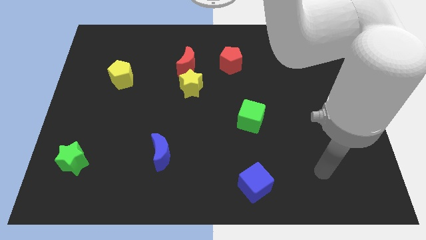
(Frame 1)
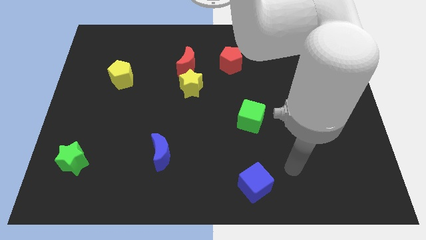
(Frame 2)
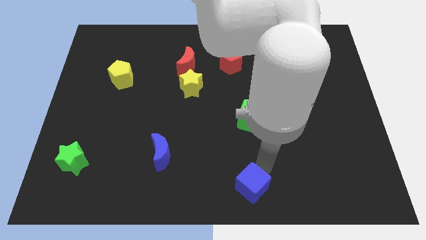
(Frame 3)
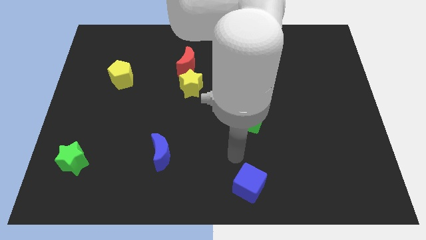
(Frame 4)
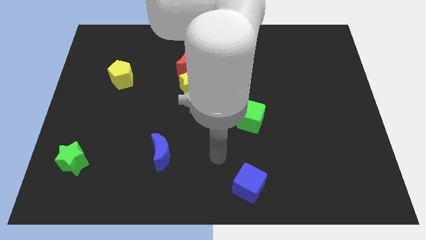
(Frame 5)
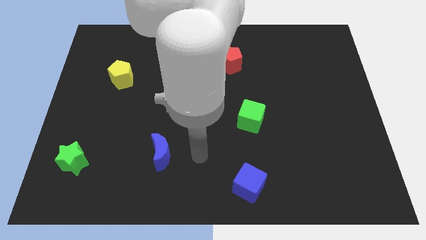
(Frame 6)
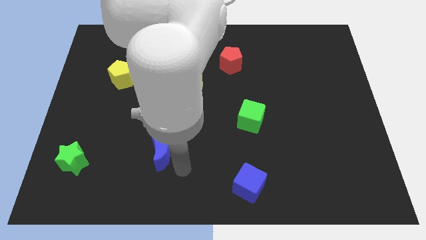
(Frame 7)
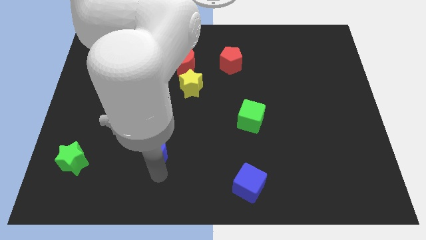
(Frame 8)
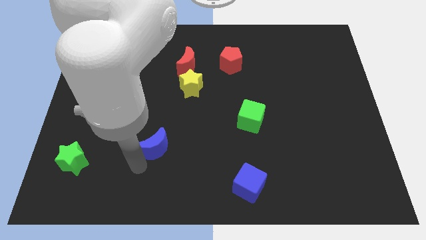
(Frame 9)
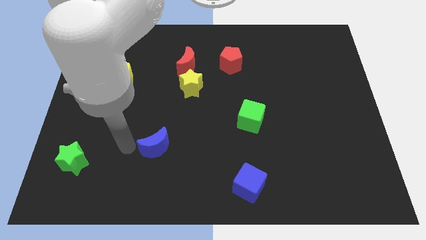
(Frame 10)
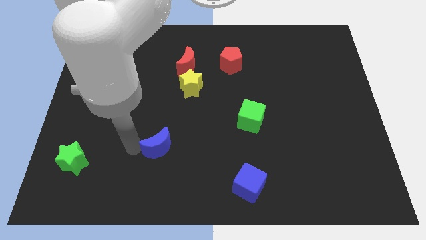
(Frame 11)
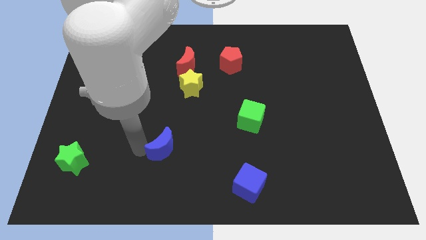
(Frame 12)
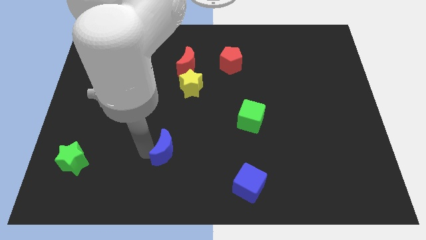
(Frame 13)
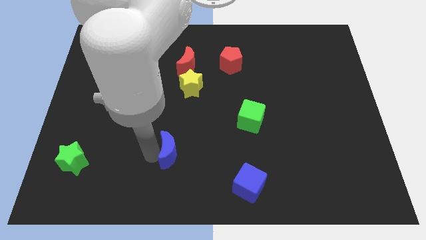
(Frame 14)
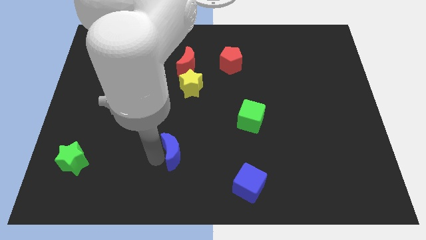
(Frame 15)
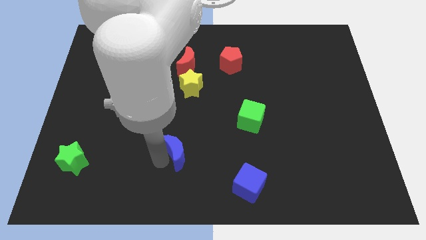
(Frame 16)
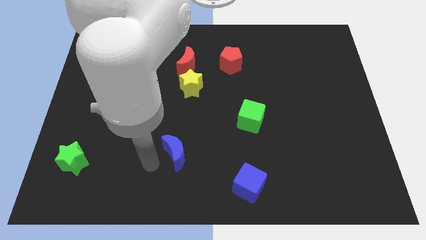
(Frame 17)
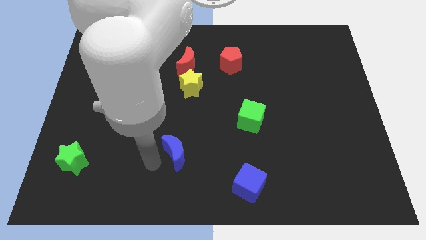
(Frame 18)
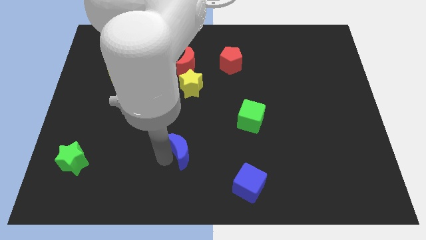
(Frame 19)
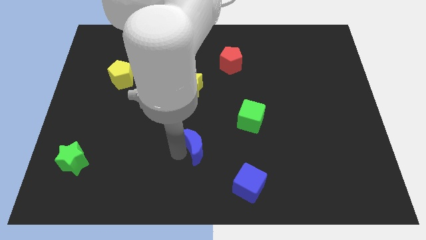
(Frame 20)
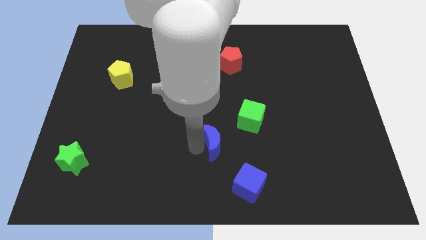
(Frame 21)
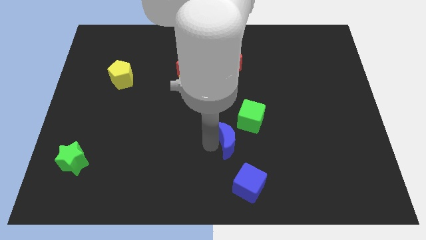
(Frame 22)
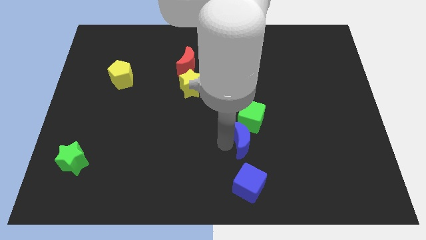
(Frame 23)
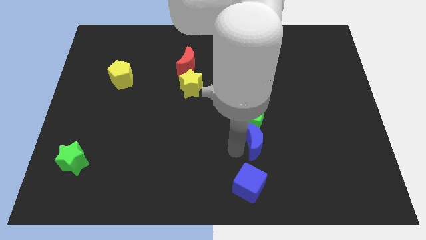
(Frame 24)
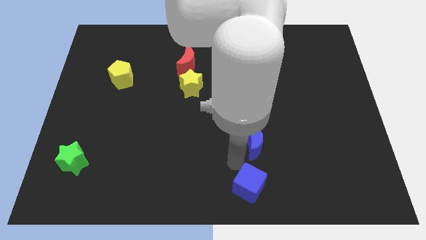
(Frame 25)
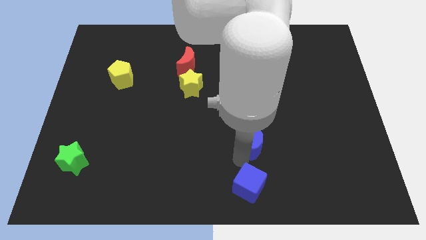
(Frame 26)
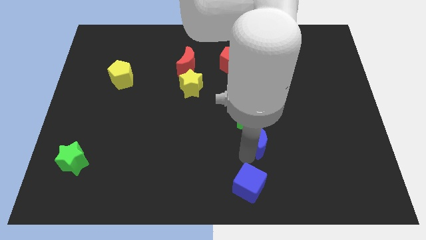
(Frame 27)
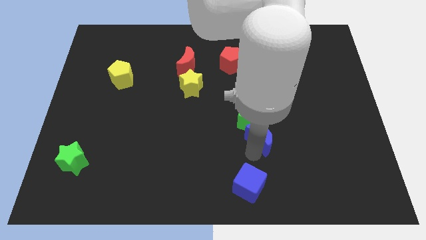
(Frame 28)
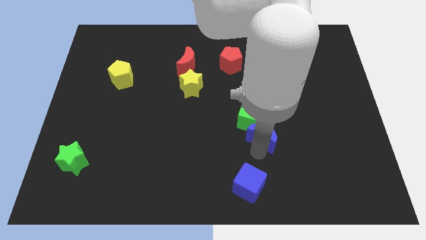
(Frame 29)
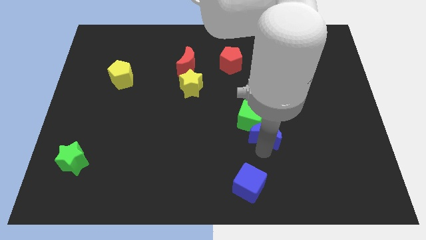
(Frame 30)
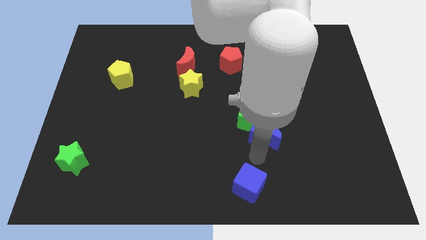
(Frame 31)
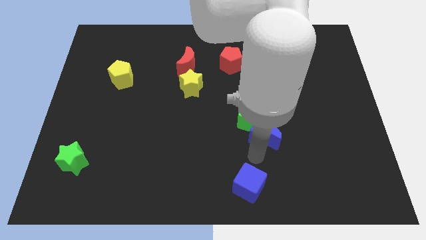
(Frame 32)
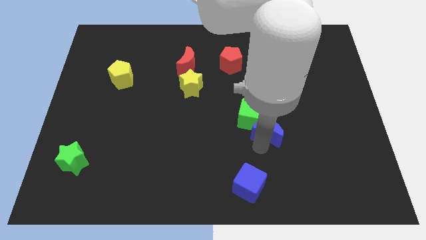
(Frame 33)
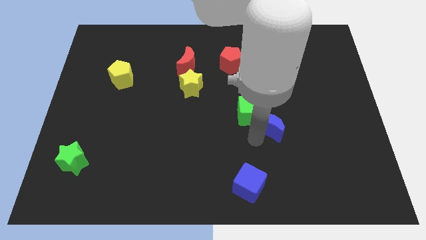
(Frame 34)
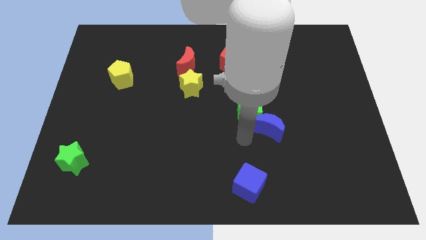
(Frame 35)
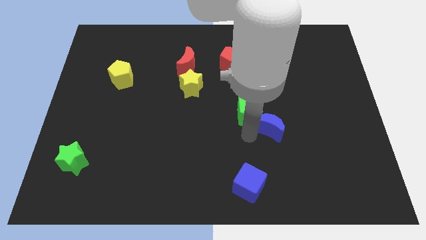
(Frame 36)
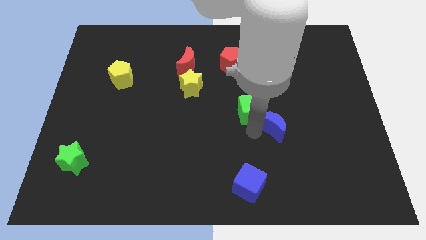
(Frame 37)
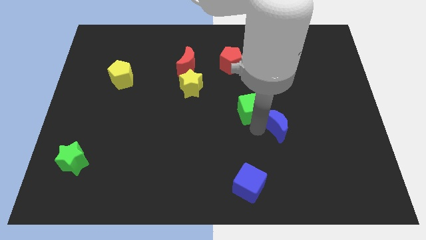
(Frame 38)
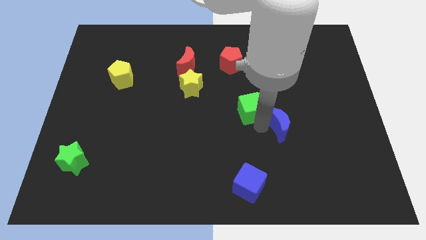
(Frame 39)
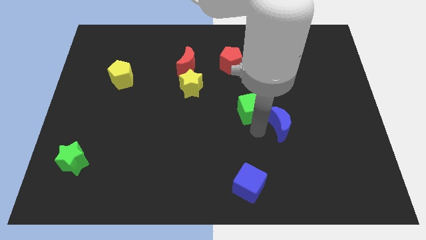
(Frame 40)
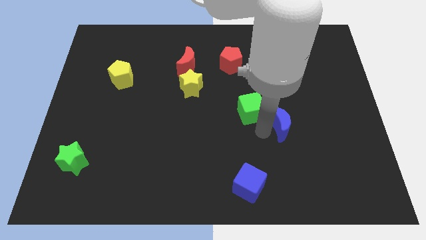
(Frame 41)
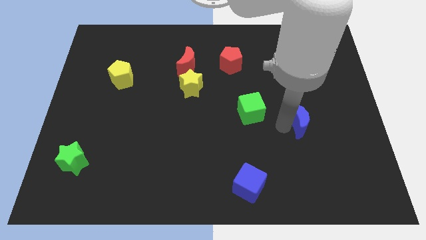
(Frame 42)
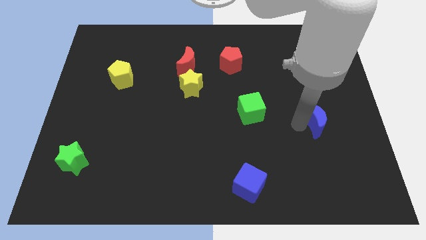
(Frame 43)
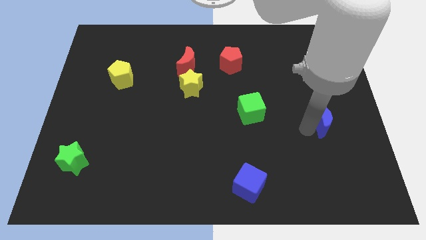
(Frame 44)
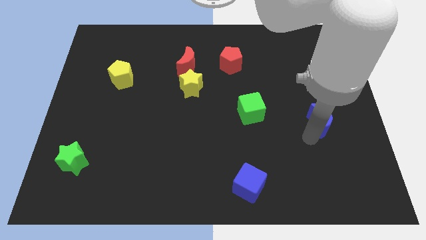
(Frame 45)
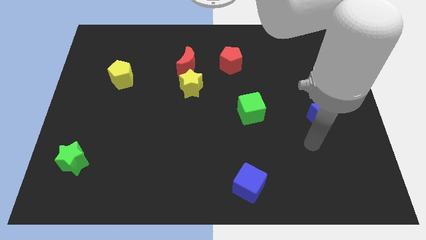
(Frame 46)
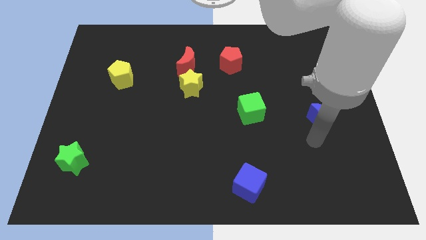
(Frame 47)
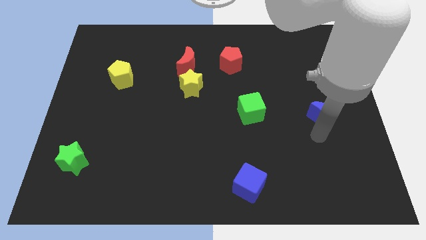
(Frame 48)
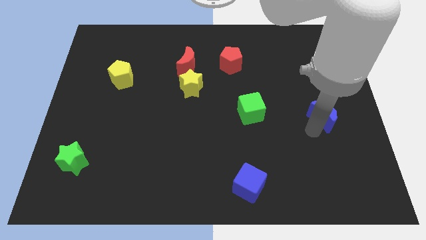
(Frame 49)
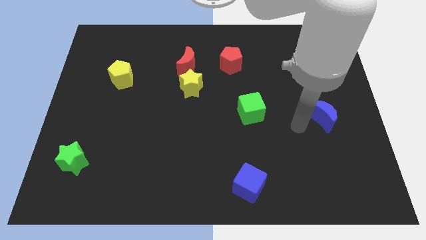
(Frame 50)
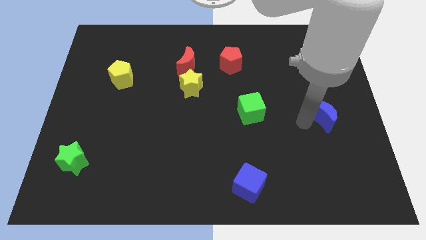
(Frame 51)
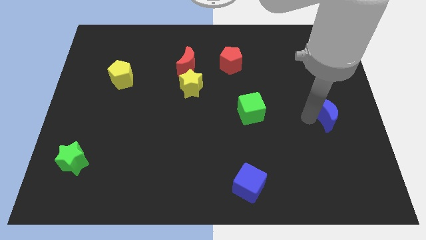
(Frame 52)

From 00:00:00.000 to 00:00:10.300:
push the blue moon to the right side

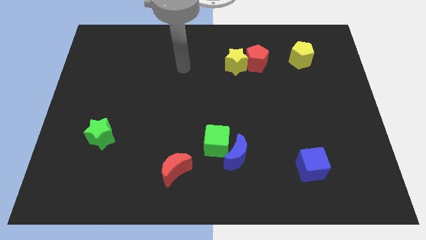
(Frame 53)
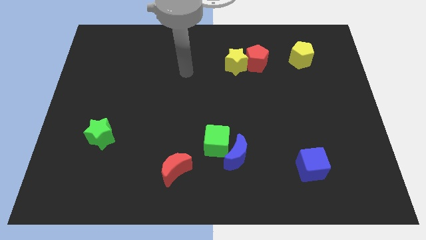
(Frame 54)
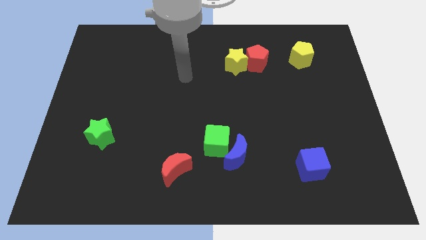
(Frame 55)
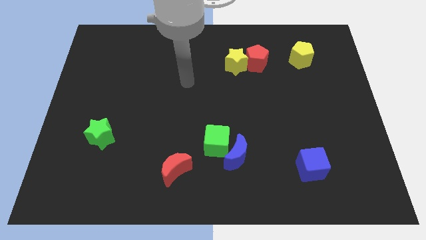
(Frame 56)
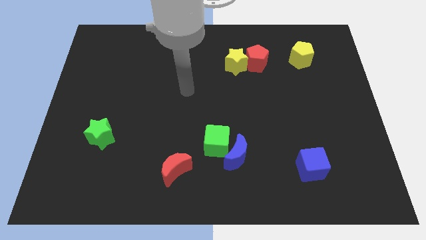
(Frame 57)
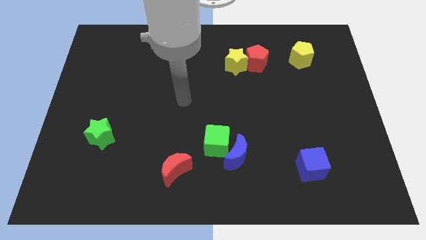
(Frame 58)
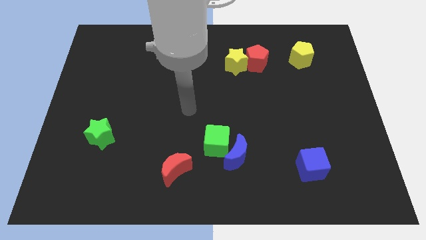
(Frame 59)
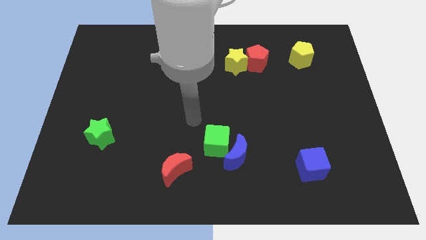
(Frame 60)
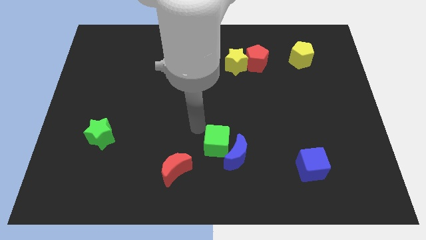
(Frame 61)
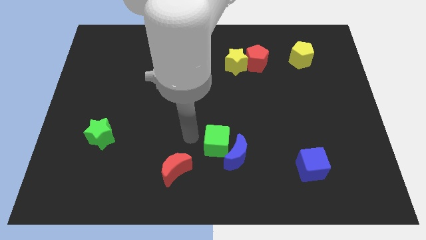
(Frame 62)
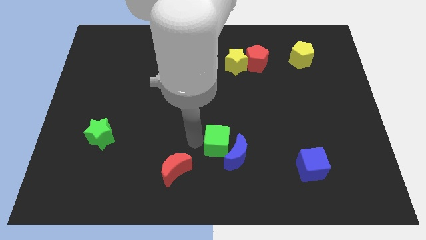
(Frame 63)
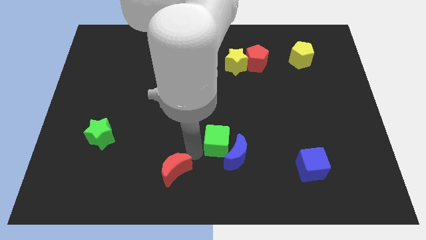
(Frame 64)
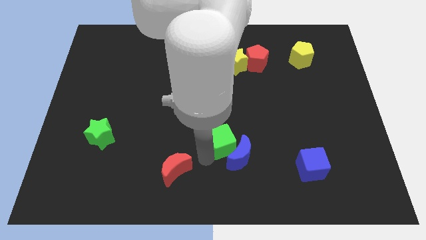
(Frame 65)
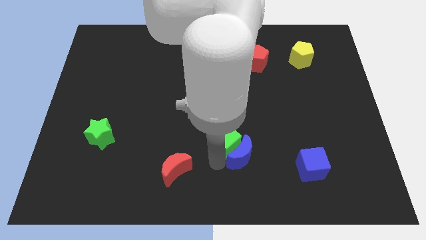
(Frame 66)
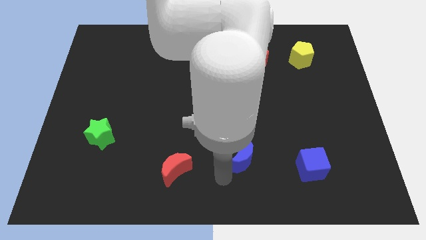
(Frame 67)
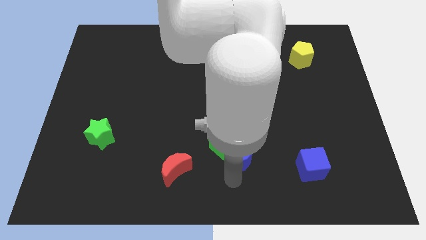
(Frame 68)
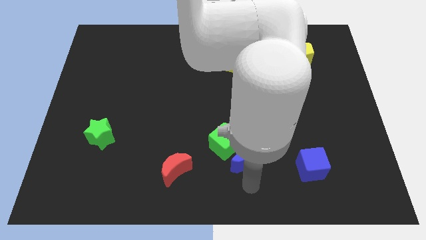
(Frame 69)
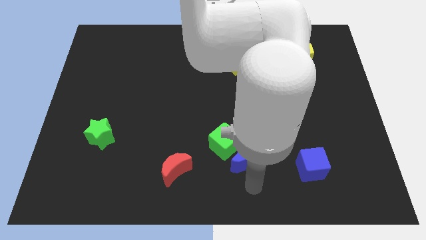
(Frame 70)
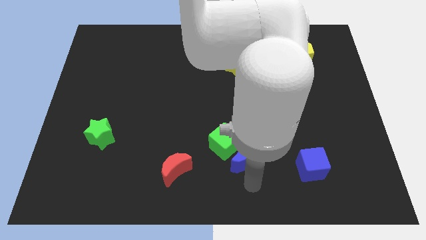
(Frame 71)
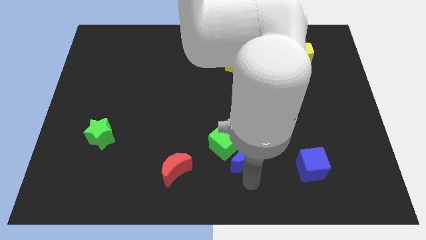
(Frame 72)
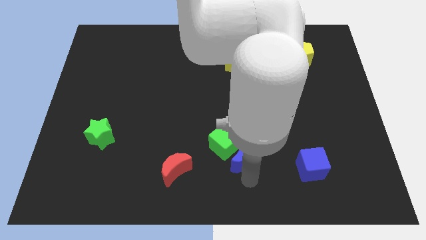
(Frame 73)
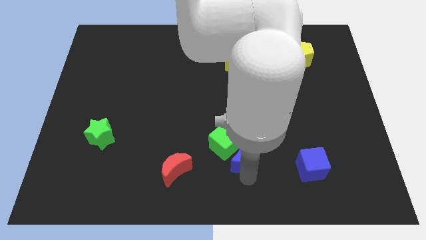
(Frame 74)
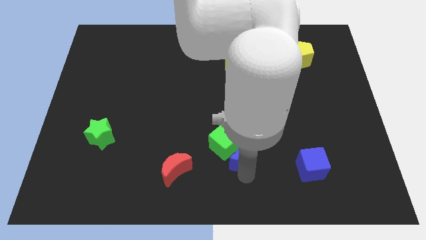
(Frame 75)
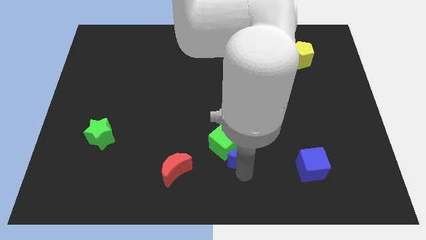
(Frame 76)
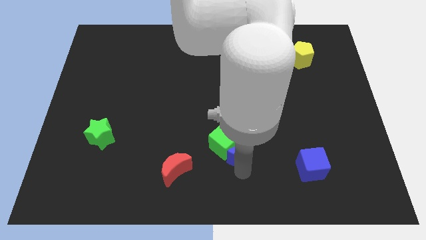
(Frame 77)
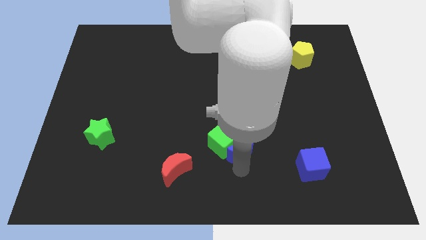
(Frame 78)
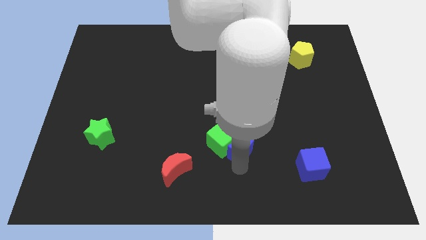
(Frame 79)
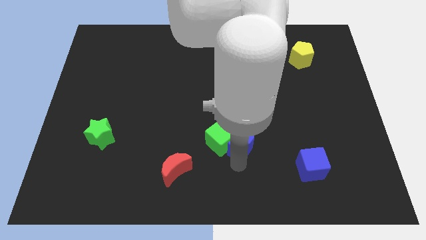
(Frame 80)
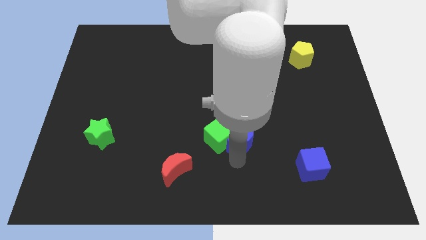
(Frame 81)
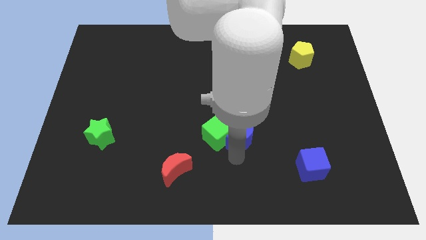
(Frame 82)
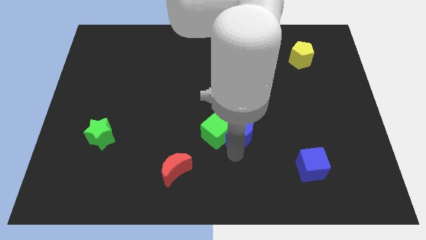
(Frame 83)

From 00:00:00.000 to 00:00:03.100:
move the blue moon to the center of the board
